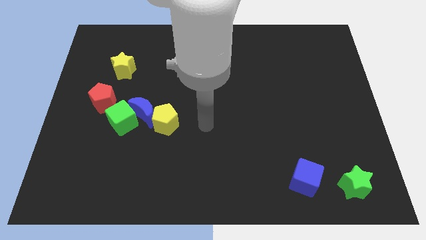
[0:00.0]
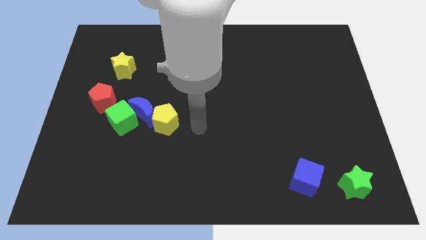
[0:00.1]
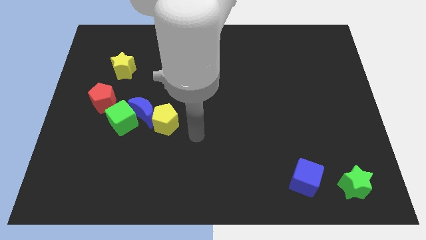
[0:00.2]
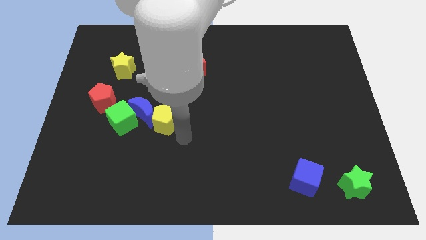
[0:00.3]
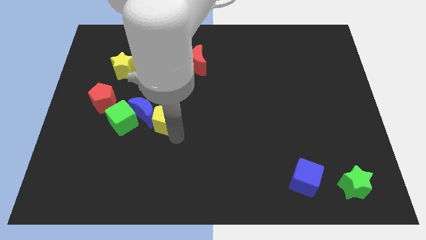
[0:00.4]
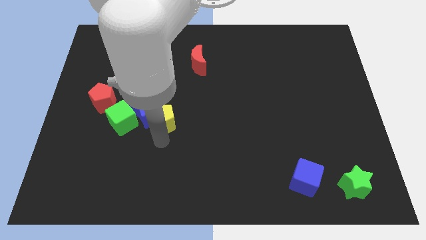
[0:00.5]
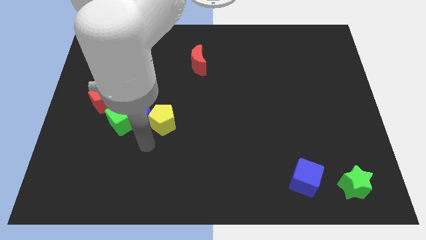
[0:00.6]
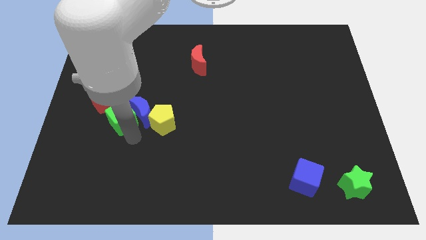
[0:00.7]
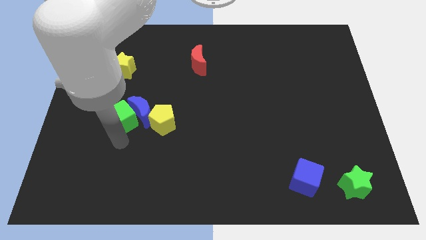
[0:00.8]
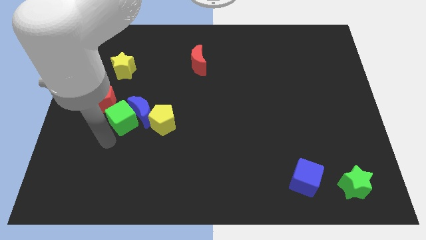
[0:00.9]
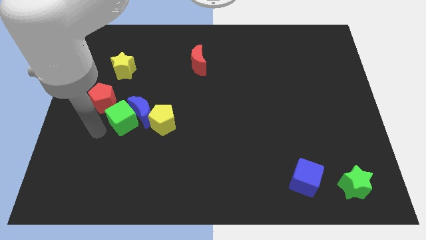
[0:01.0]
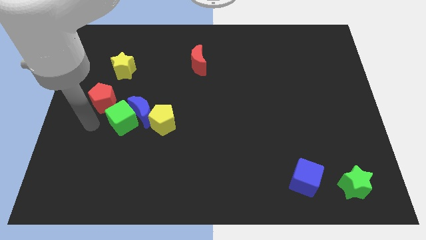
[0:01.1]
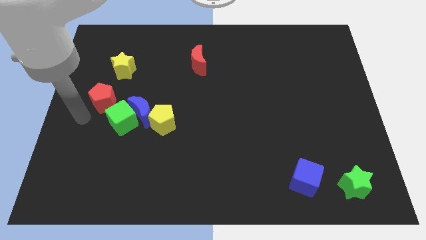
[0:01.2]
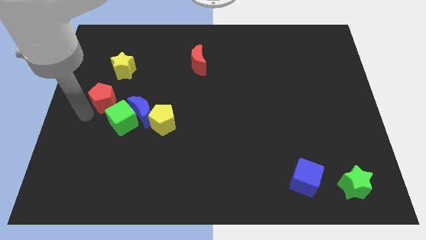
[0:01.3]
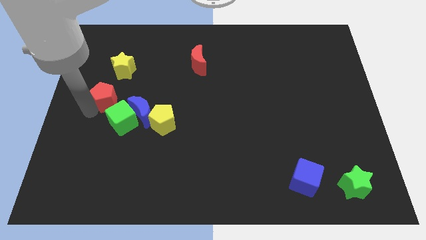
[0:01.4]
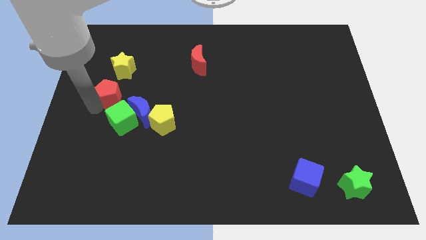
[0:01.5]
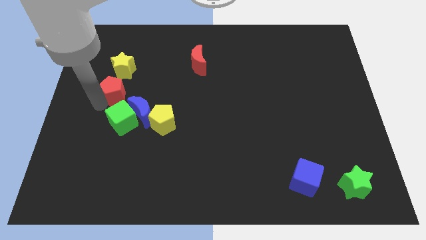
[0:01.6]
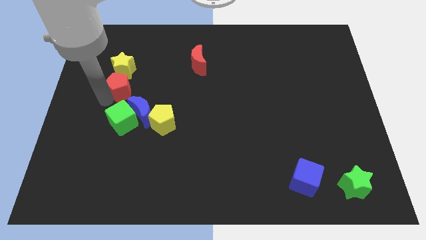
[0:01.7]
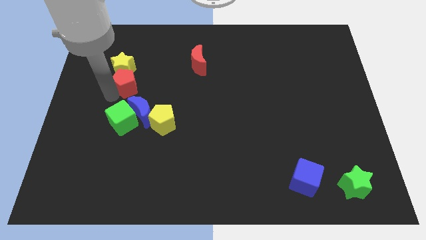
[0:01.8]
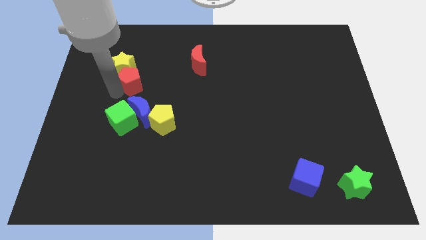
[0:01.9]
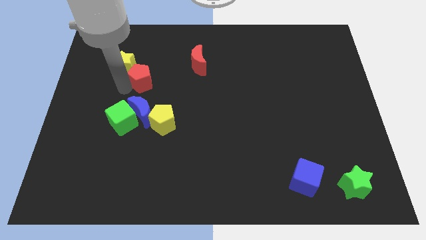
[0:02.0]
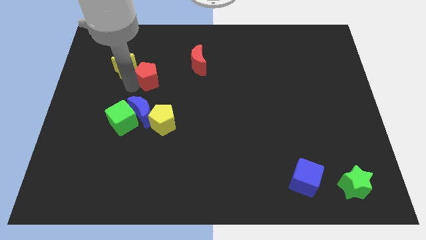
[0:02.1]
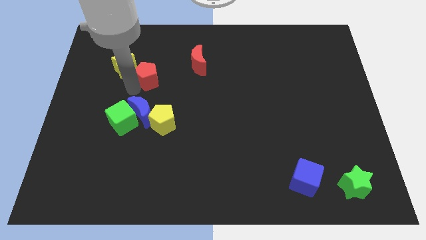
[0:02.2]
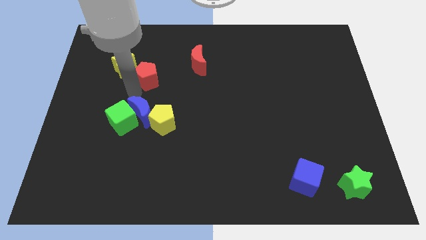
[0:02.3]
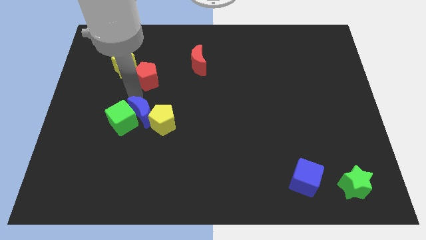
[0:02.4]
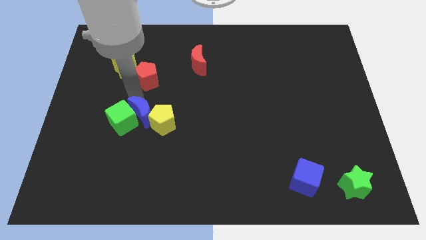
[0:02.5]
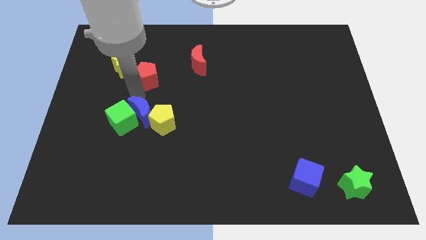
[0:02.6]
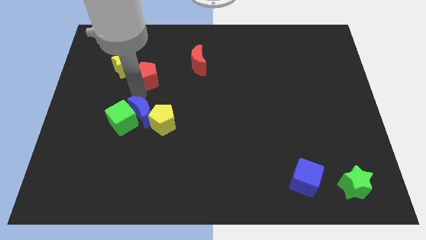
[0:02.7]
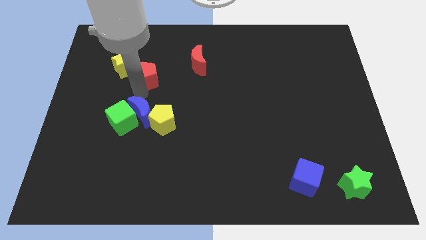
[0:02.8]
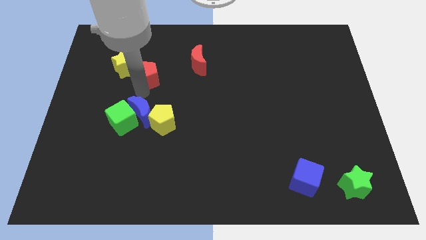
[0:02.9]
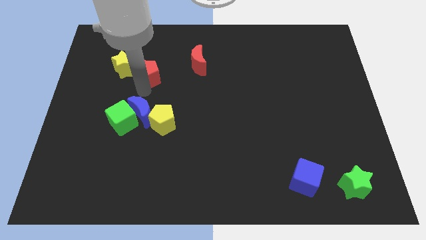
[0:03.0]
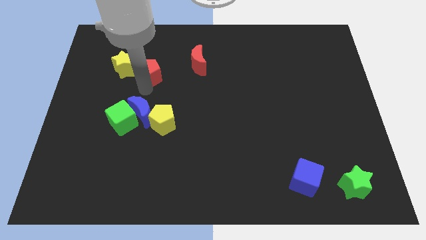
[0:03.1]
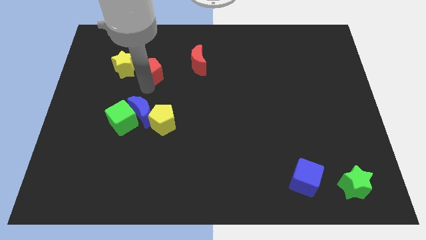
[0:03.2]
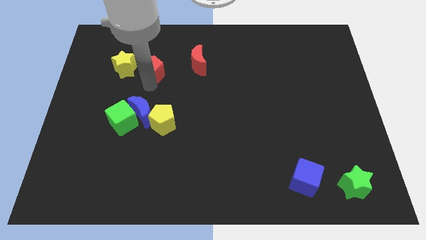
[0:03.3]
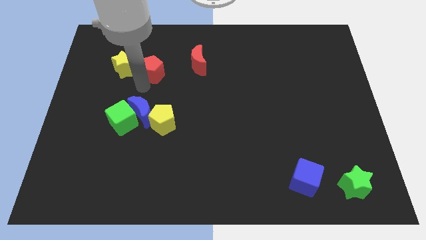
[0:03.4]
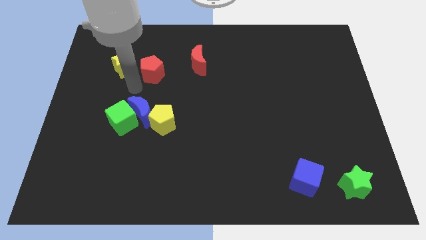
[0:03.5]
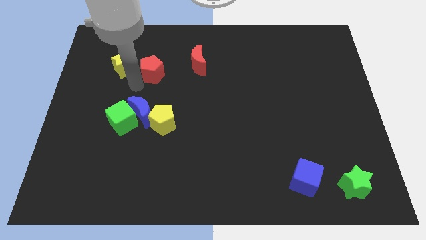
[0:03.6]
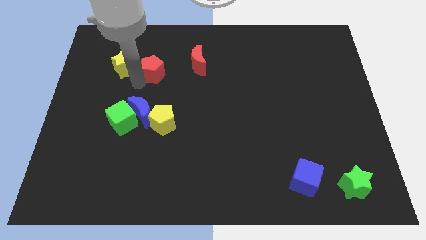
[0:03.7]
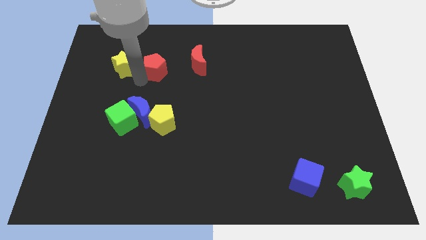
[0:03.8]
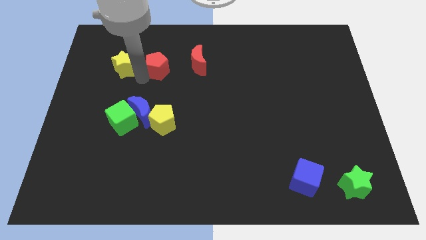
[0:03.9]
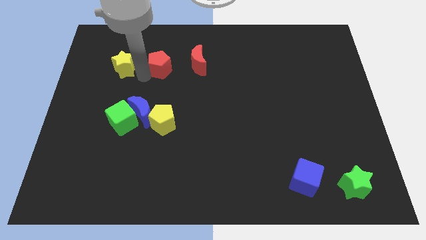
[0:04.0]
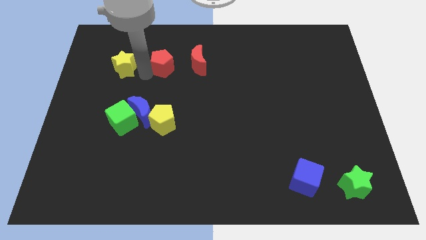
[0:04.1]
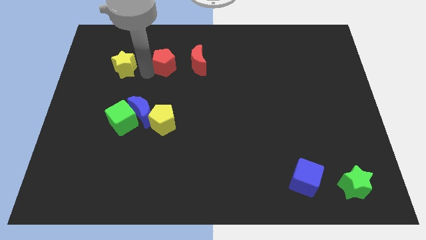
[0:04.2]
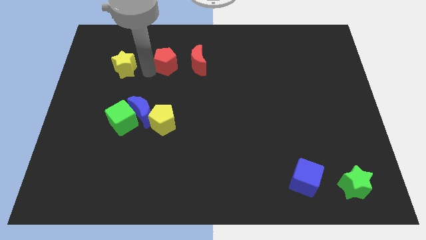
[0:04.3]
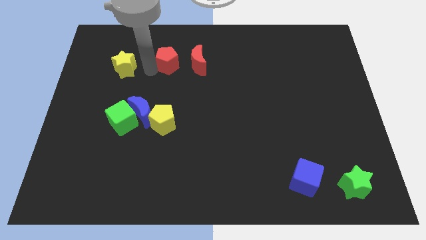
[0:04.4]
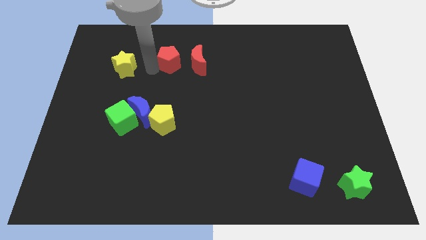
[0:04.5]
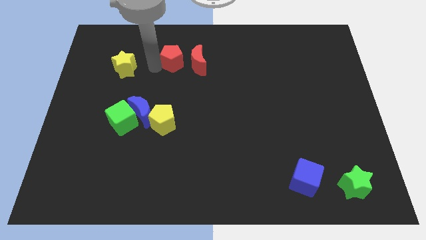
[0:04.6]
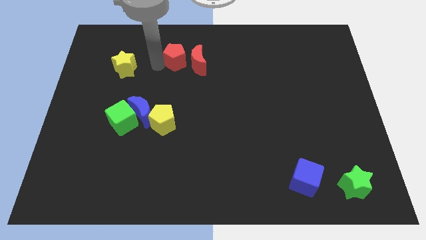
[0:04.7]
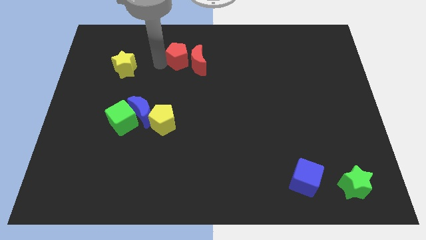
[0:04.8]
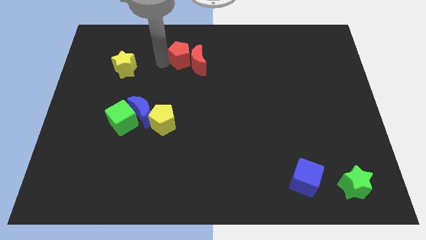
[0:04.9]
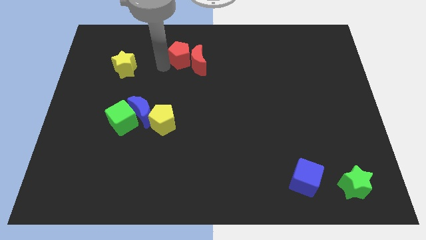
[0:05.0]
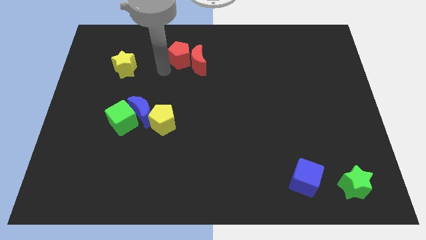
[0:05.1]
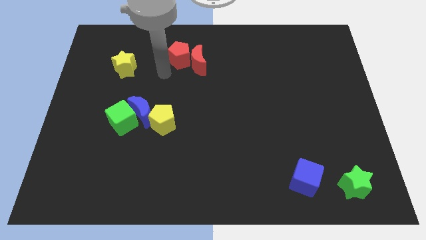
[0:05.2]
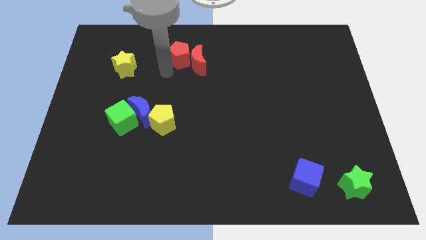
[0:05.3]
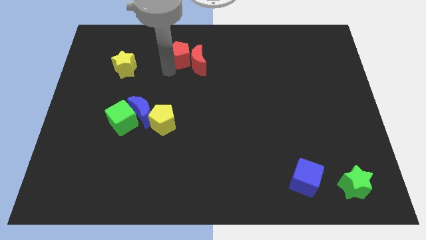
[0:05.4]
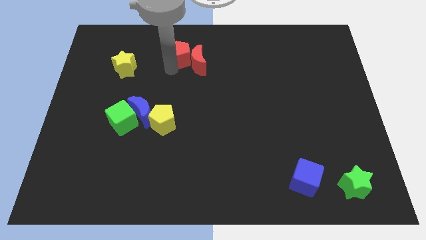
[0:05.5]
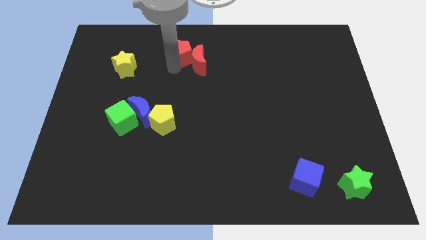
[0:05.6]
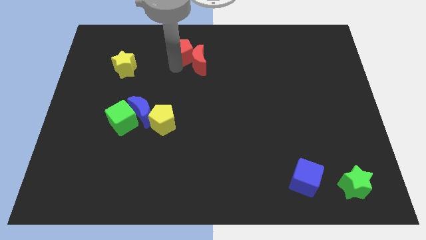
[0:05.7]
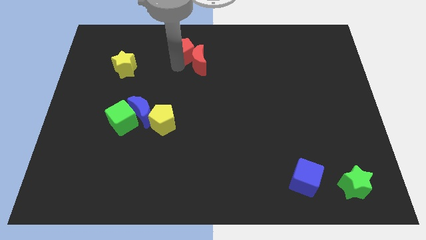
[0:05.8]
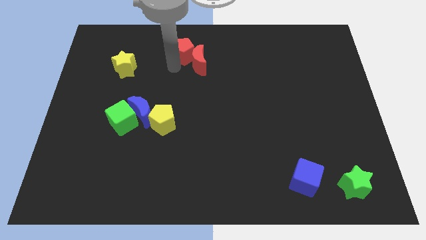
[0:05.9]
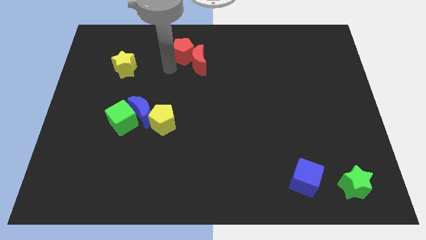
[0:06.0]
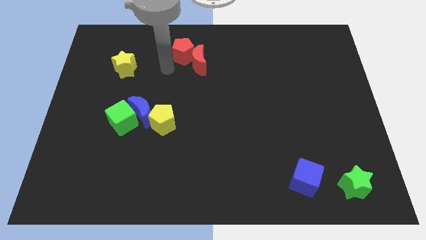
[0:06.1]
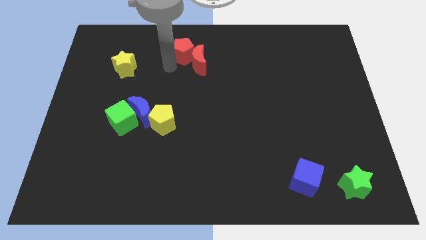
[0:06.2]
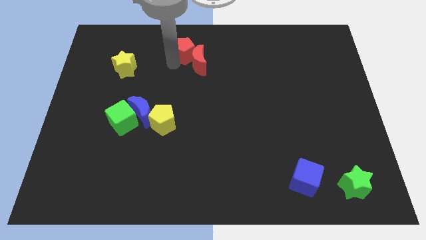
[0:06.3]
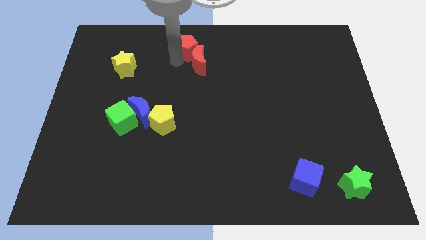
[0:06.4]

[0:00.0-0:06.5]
push the red pentagon to the top
